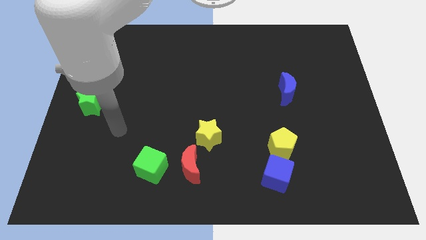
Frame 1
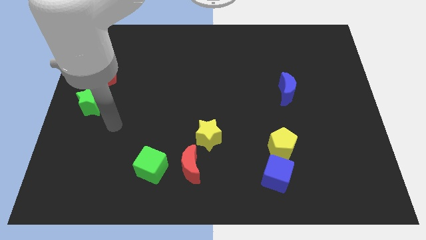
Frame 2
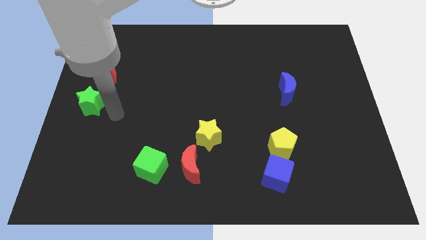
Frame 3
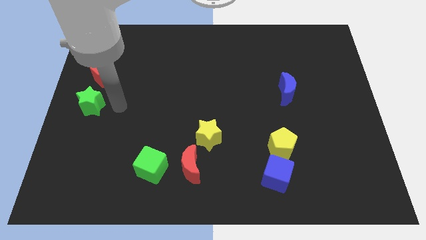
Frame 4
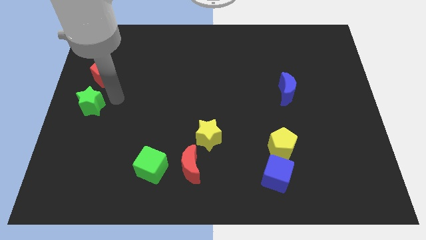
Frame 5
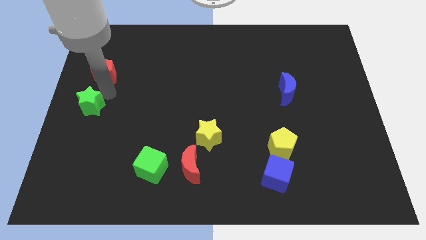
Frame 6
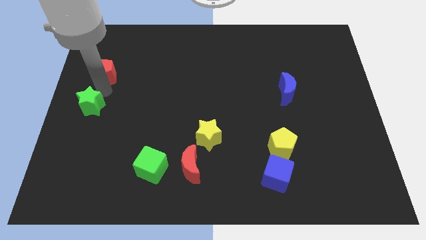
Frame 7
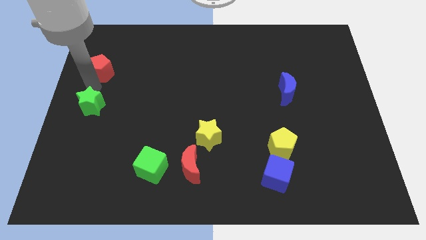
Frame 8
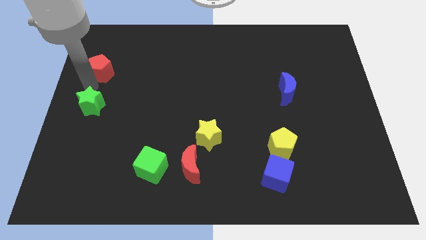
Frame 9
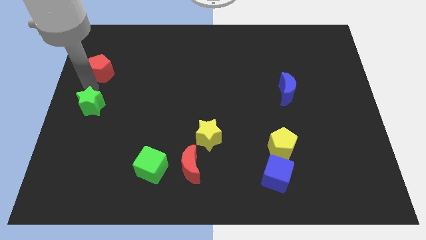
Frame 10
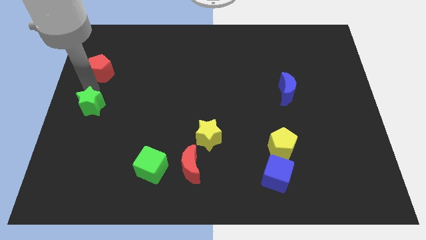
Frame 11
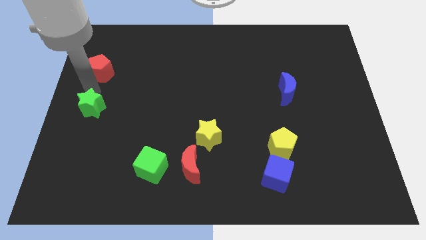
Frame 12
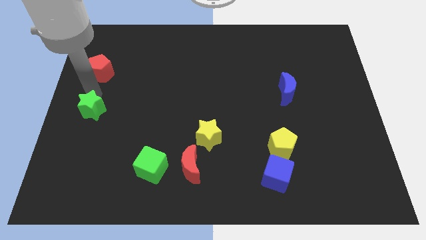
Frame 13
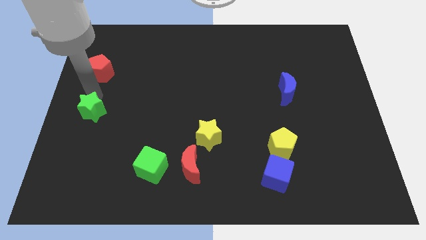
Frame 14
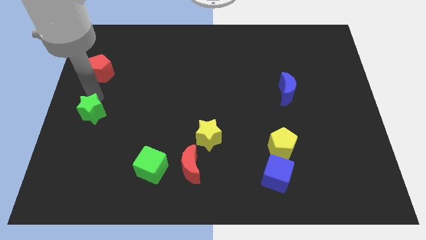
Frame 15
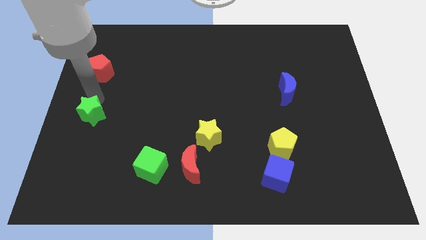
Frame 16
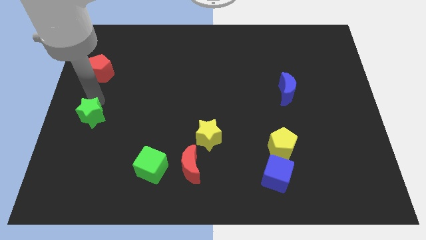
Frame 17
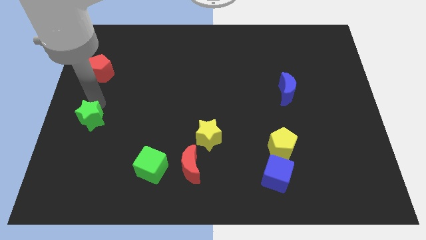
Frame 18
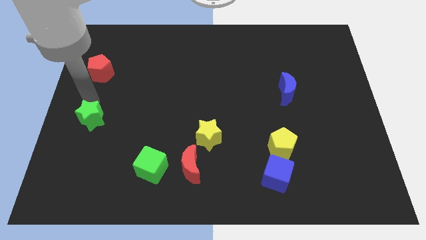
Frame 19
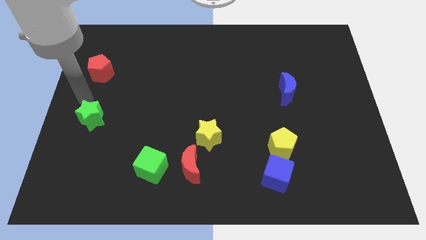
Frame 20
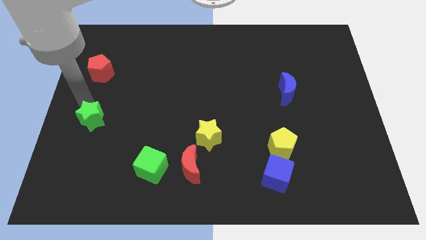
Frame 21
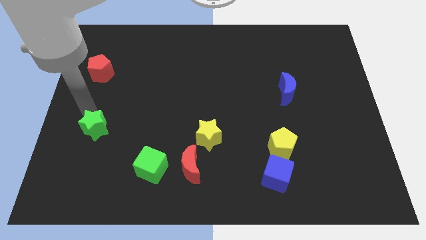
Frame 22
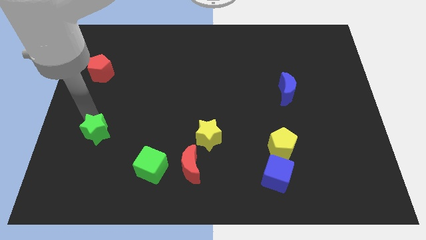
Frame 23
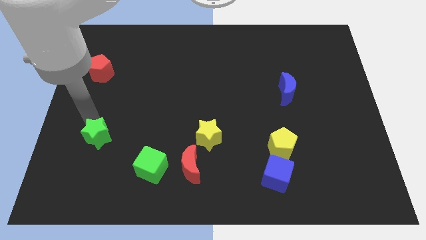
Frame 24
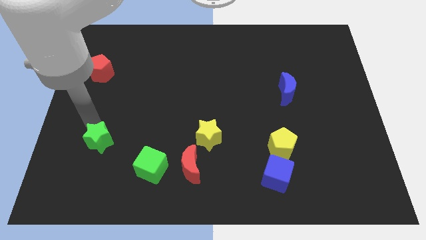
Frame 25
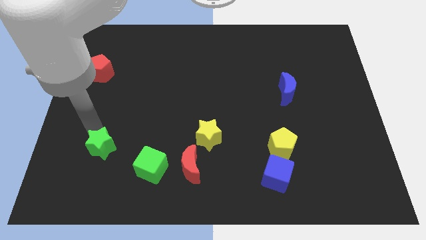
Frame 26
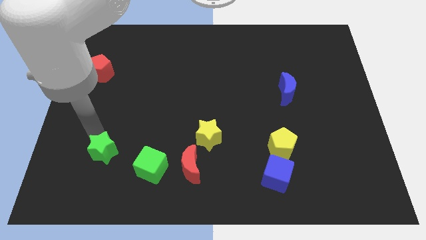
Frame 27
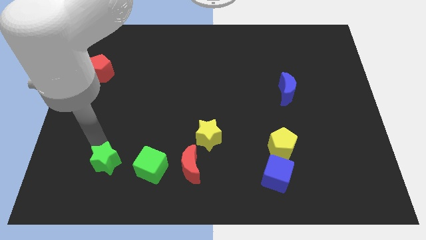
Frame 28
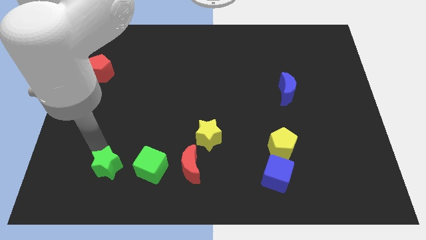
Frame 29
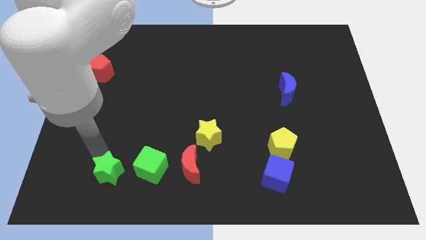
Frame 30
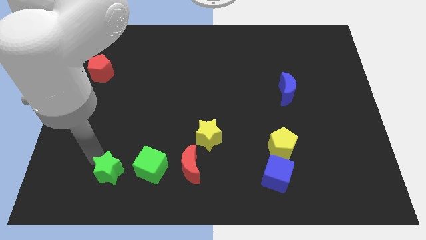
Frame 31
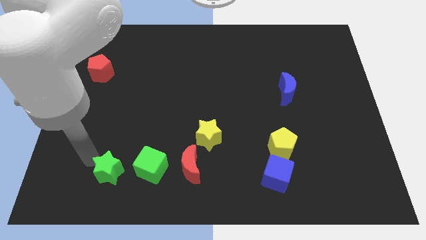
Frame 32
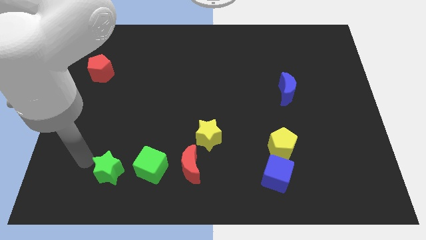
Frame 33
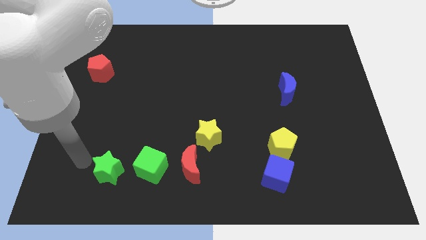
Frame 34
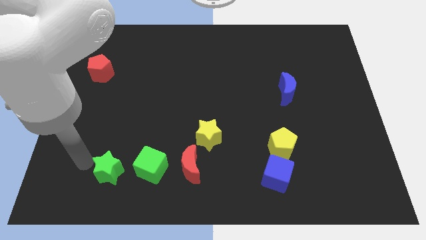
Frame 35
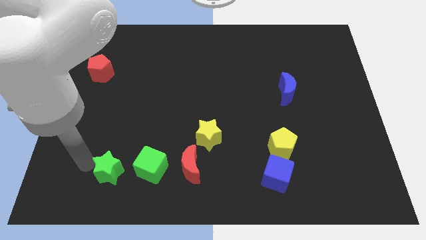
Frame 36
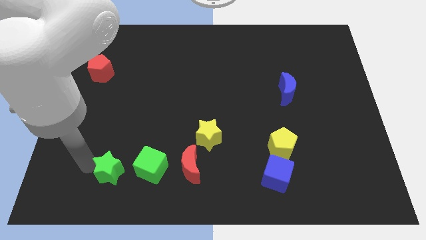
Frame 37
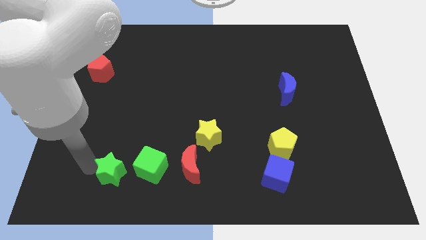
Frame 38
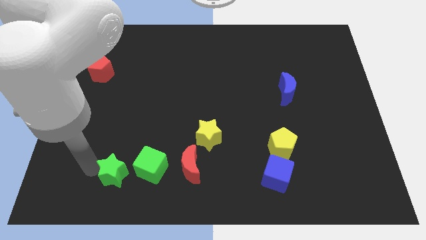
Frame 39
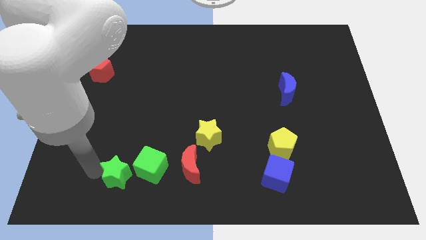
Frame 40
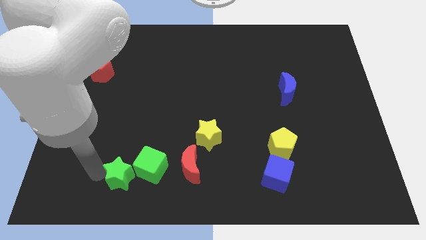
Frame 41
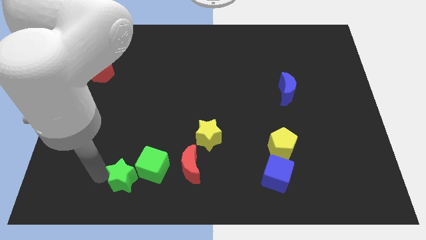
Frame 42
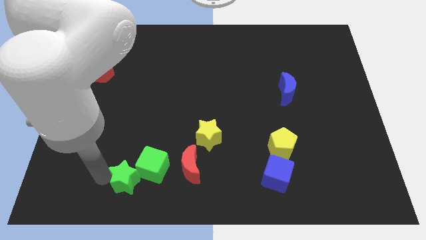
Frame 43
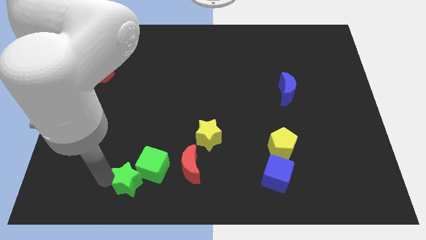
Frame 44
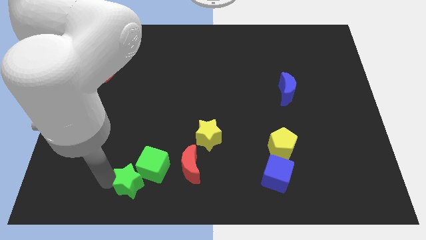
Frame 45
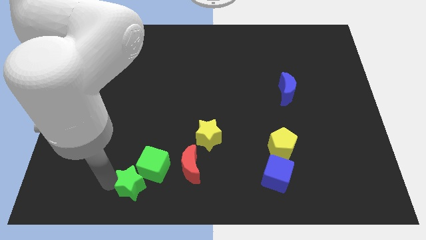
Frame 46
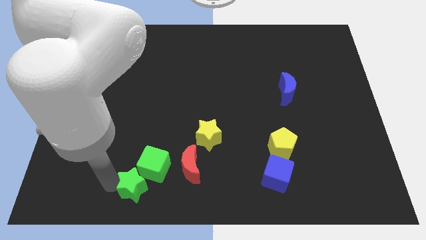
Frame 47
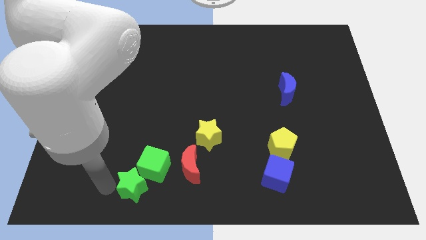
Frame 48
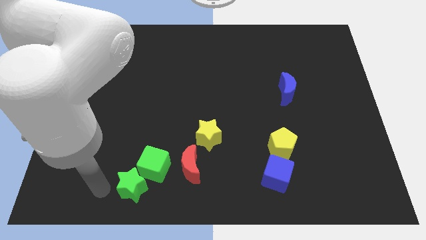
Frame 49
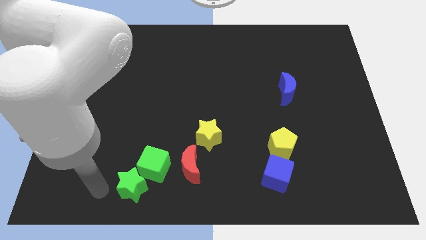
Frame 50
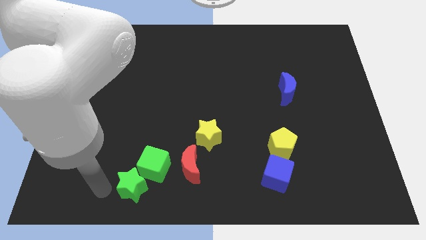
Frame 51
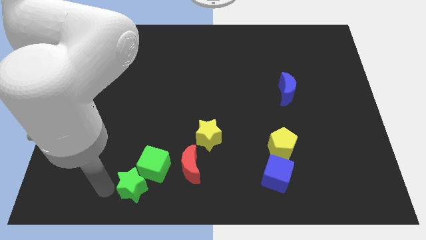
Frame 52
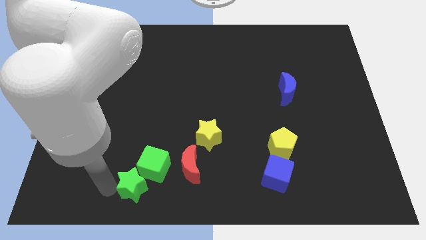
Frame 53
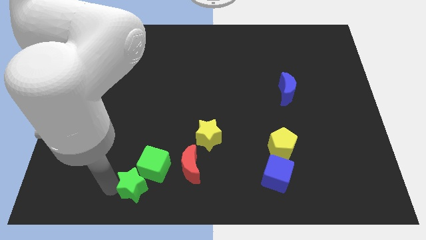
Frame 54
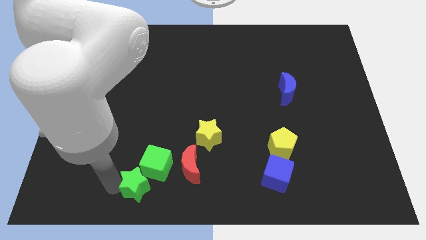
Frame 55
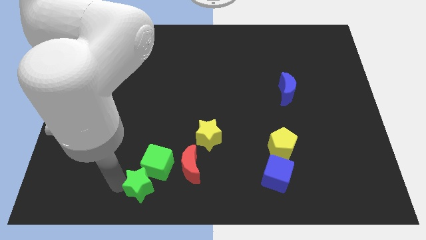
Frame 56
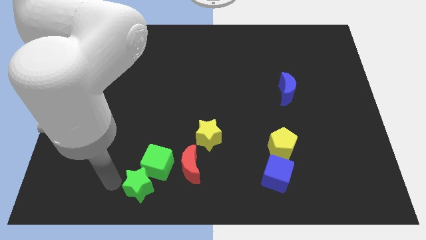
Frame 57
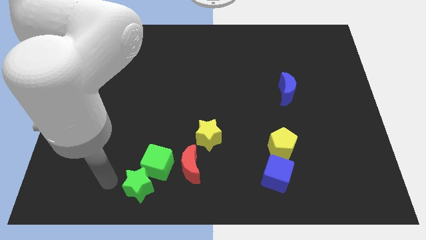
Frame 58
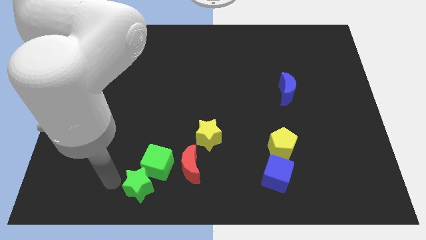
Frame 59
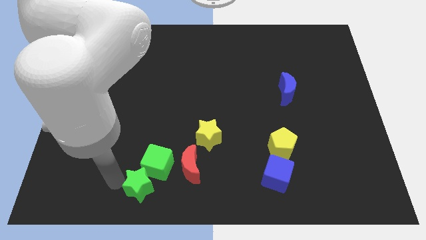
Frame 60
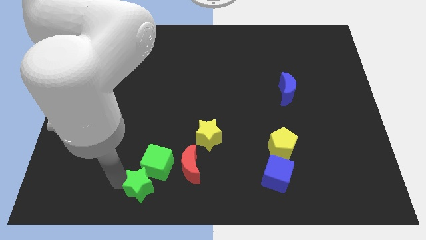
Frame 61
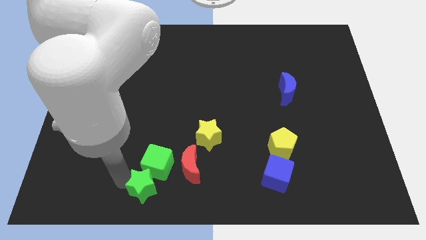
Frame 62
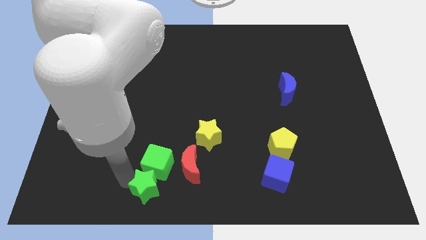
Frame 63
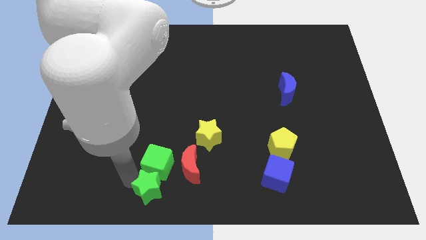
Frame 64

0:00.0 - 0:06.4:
slide the green star to the bottom side
